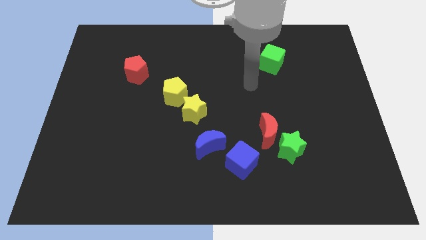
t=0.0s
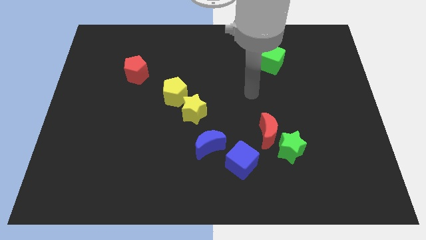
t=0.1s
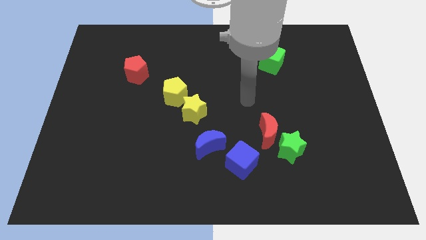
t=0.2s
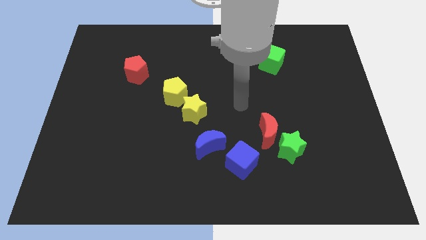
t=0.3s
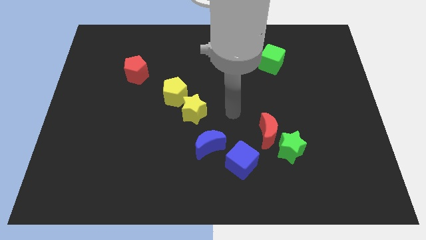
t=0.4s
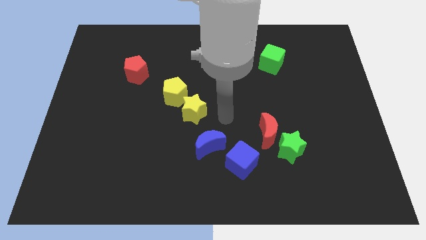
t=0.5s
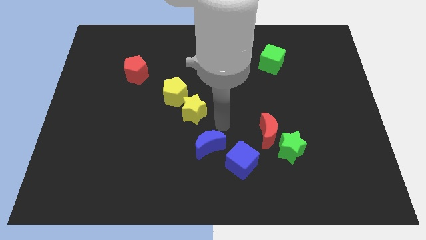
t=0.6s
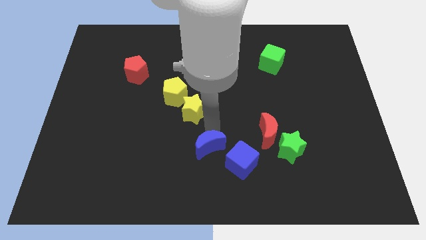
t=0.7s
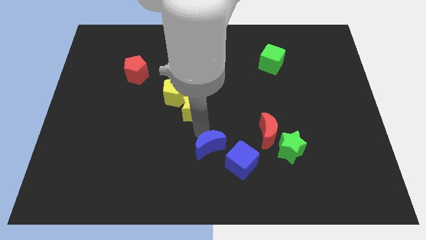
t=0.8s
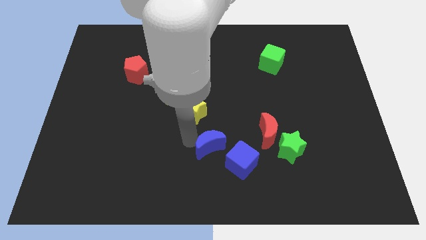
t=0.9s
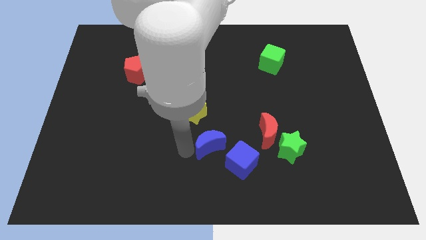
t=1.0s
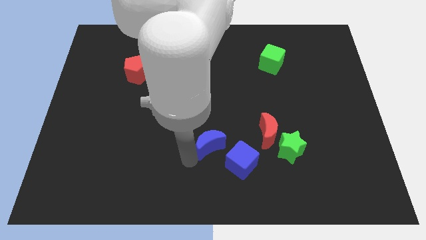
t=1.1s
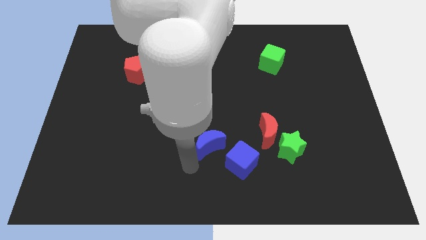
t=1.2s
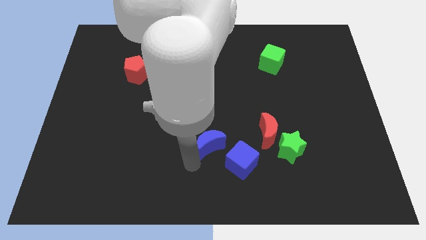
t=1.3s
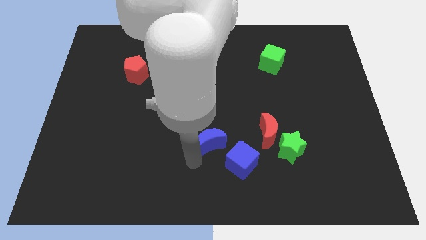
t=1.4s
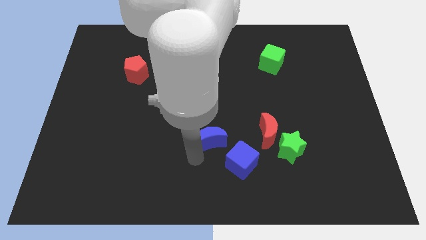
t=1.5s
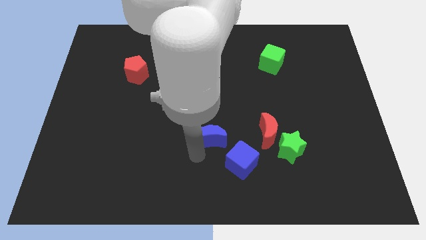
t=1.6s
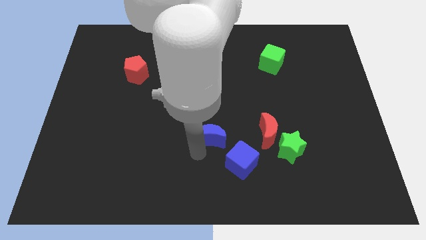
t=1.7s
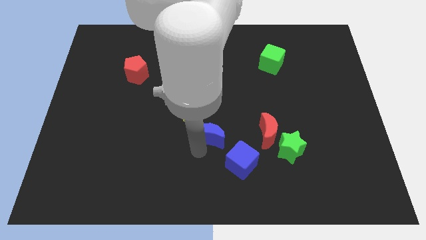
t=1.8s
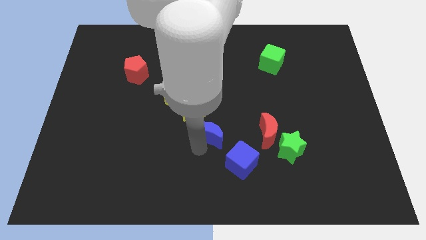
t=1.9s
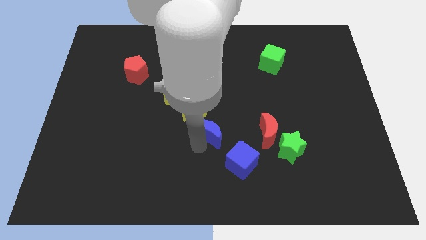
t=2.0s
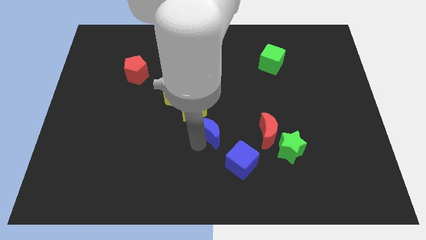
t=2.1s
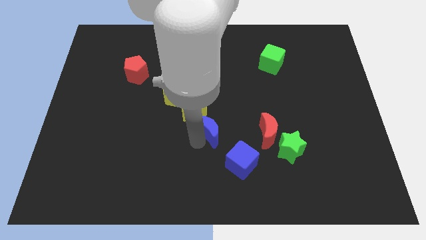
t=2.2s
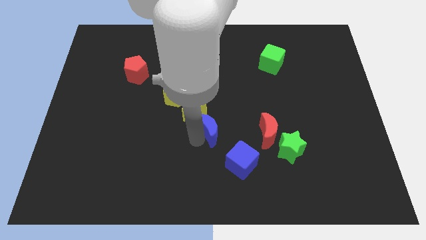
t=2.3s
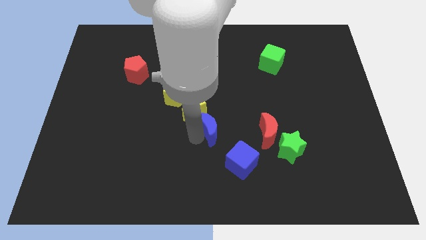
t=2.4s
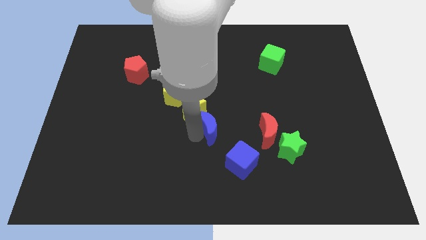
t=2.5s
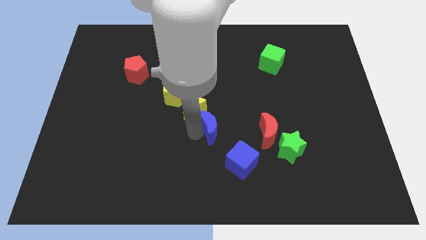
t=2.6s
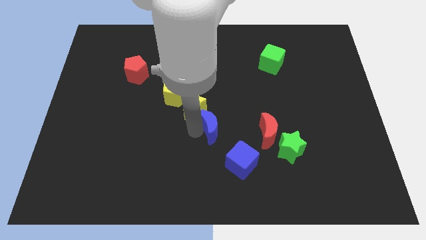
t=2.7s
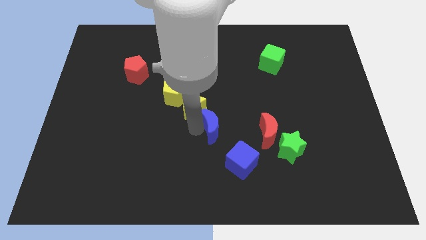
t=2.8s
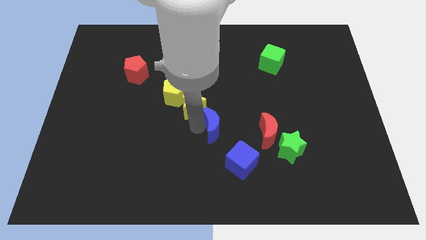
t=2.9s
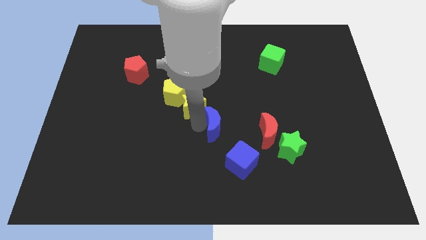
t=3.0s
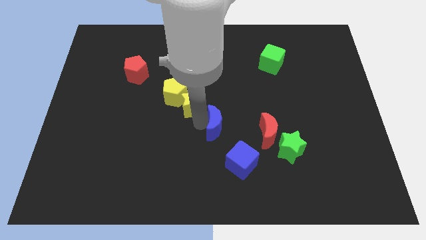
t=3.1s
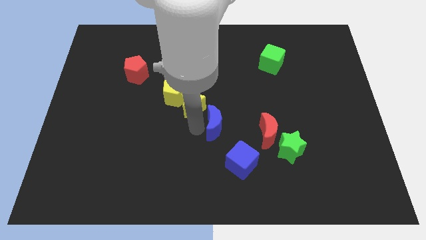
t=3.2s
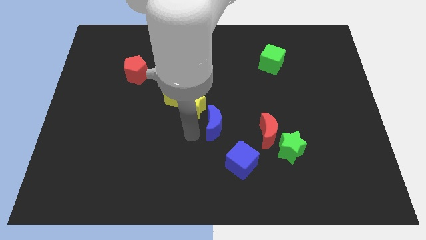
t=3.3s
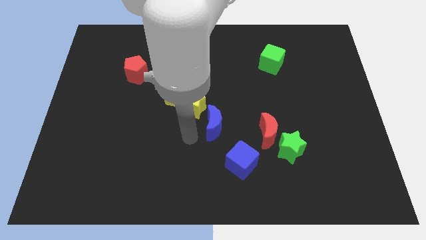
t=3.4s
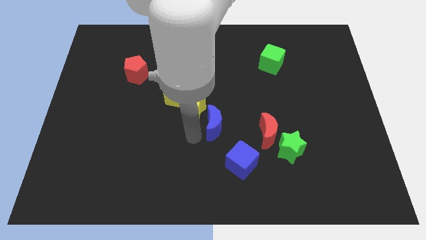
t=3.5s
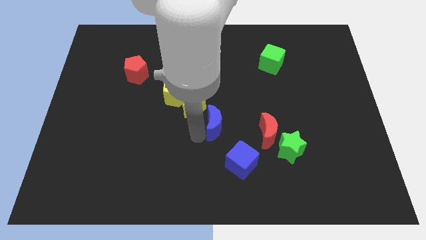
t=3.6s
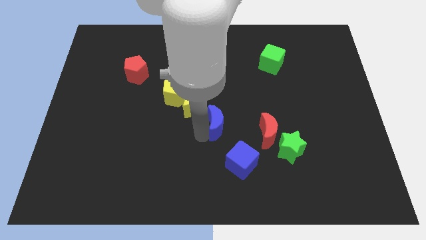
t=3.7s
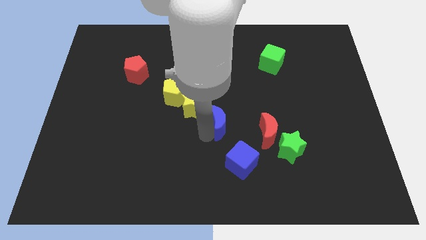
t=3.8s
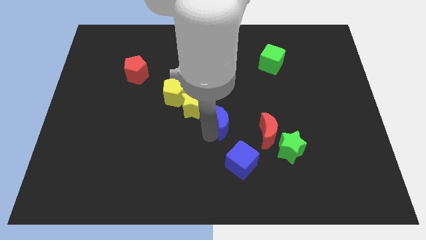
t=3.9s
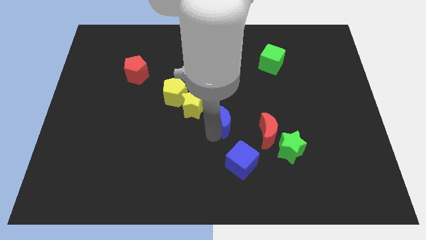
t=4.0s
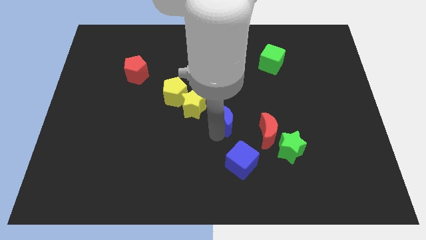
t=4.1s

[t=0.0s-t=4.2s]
slightly push the blue moon up and to the right diagonally

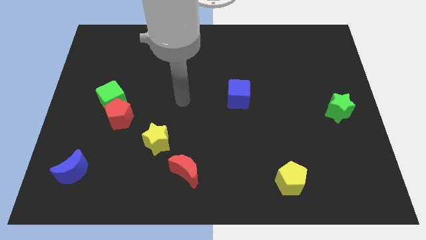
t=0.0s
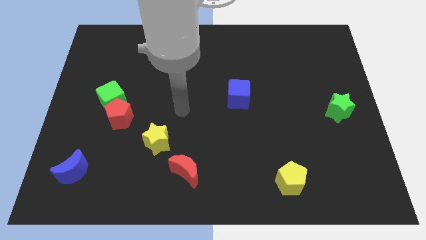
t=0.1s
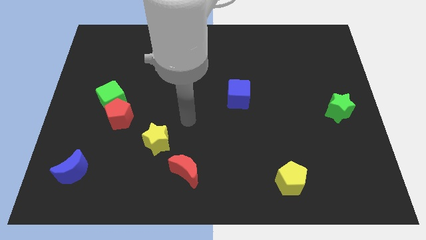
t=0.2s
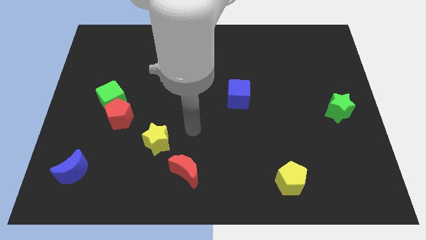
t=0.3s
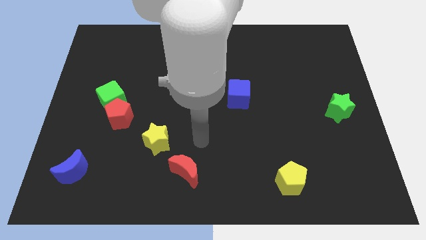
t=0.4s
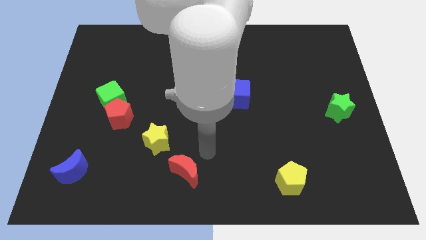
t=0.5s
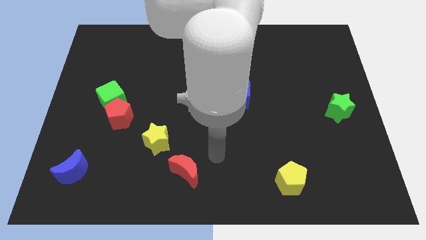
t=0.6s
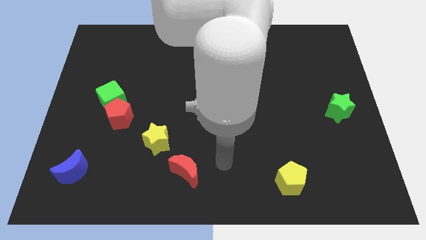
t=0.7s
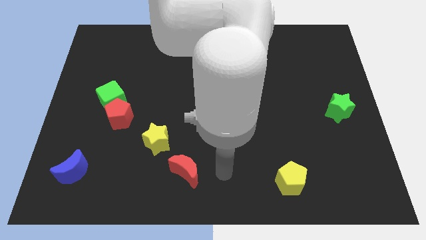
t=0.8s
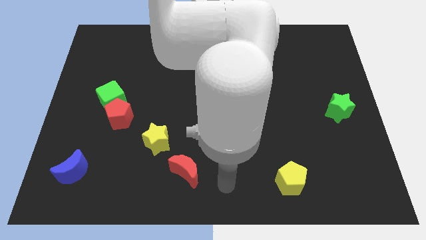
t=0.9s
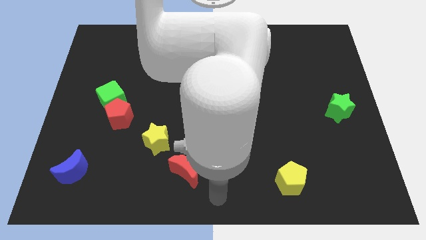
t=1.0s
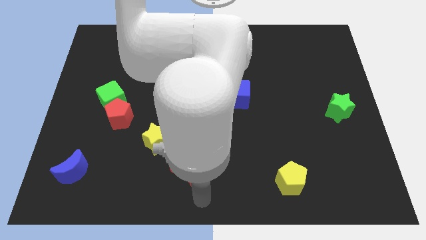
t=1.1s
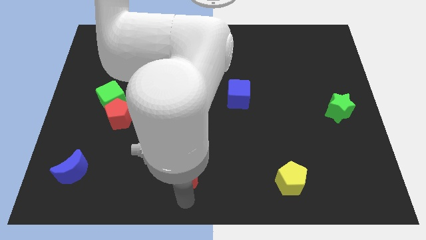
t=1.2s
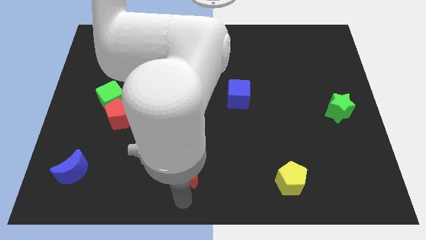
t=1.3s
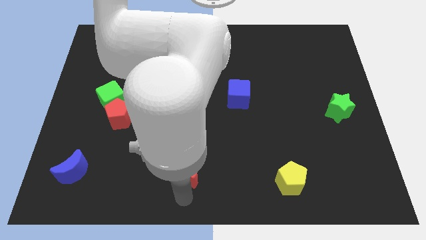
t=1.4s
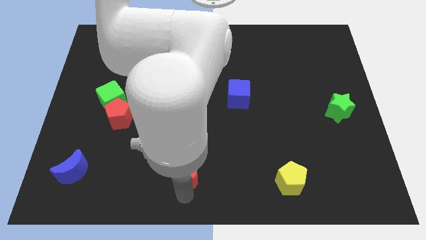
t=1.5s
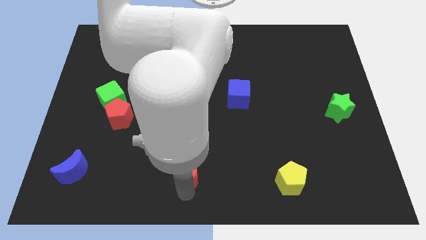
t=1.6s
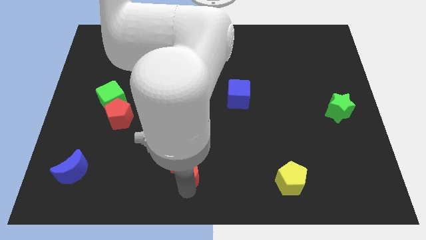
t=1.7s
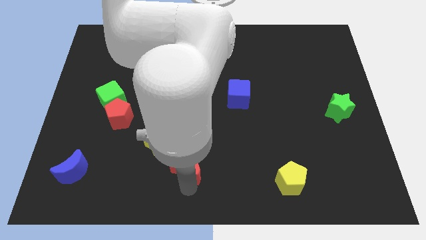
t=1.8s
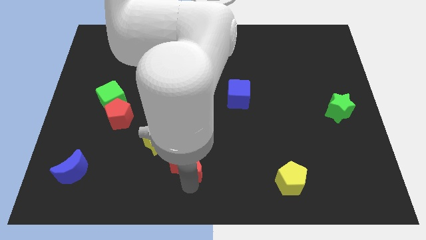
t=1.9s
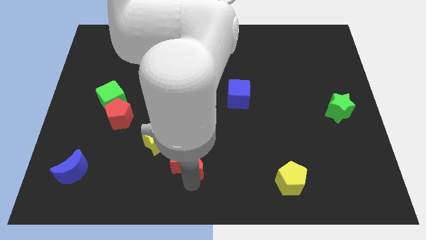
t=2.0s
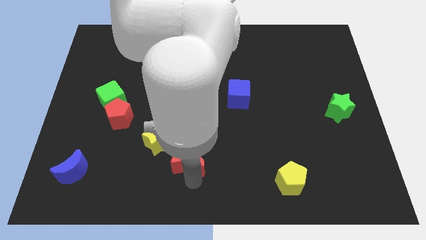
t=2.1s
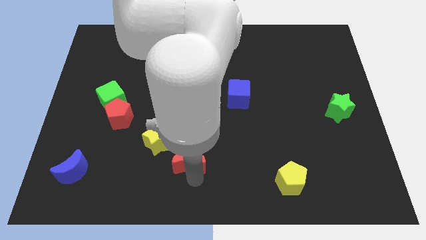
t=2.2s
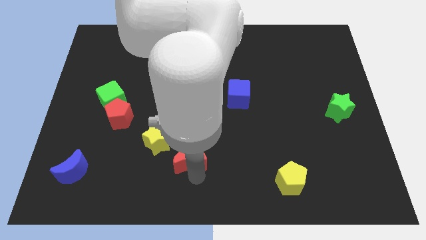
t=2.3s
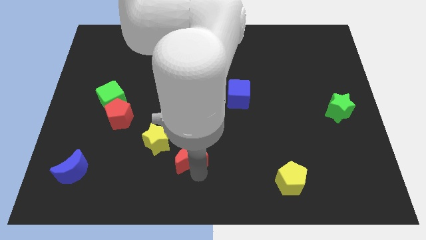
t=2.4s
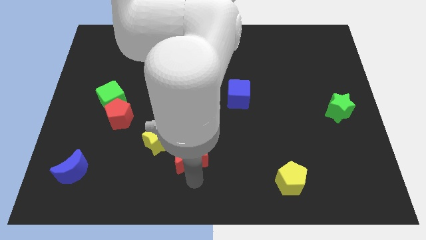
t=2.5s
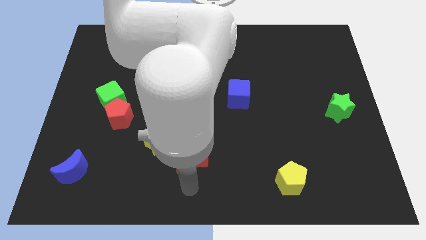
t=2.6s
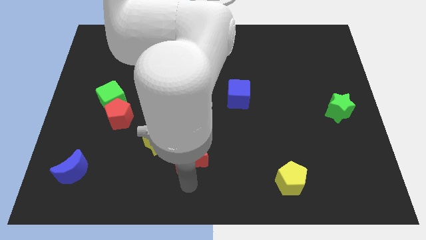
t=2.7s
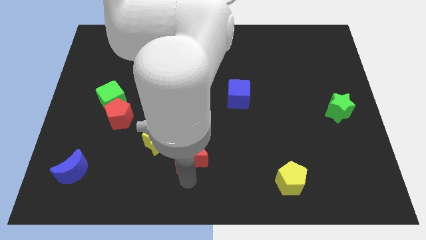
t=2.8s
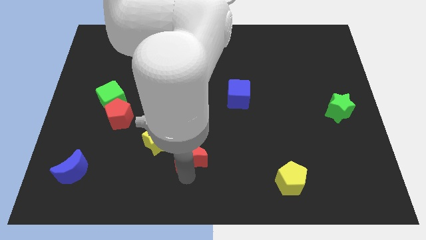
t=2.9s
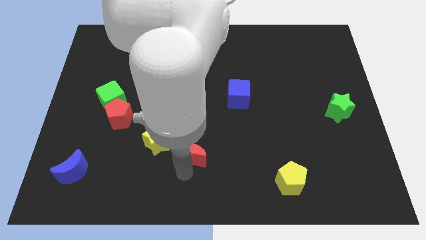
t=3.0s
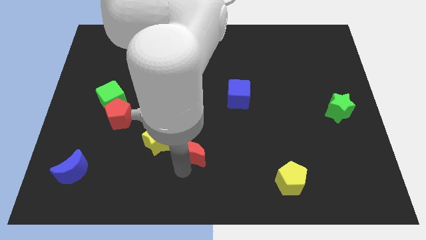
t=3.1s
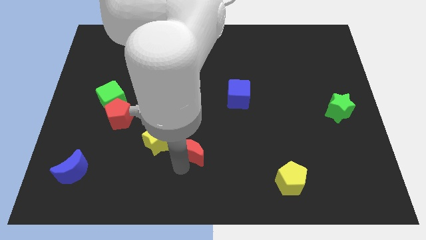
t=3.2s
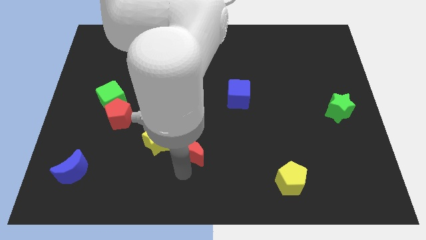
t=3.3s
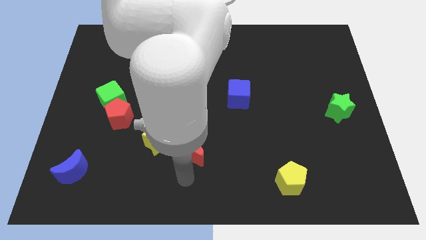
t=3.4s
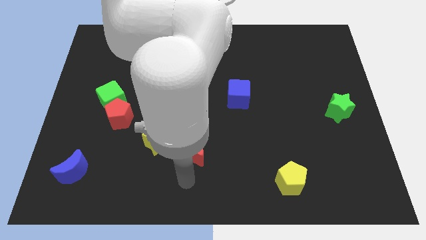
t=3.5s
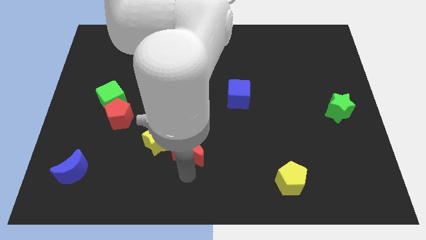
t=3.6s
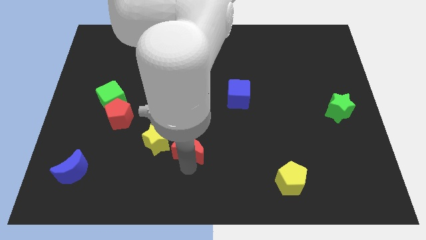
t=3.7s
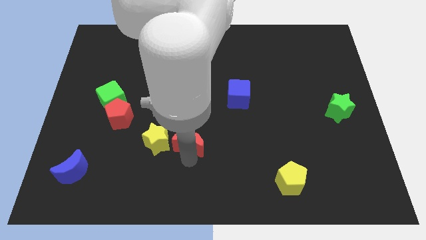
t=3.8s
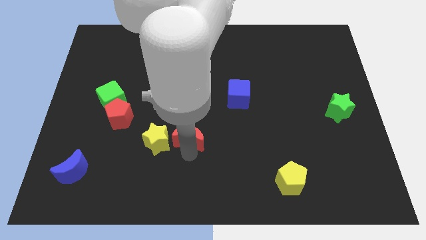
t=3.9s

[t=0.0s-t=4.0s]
slide the red moon upwards somewhat

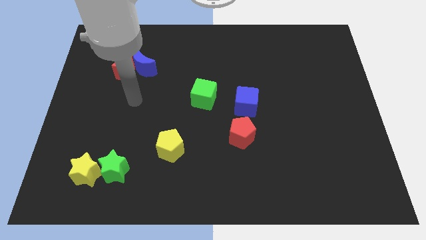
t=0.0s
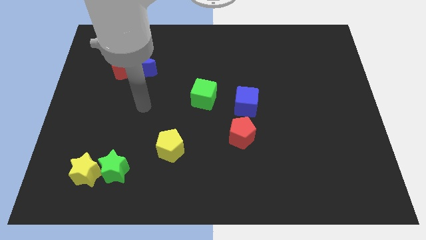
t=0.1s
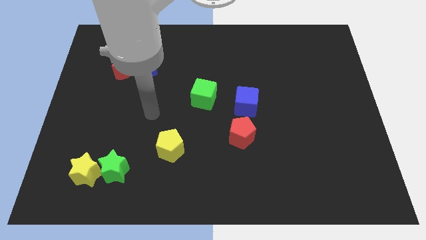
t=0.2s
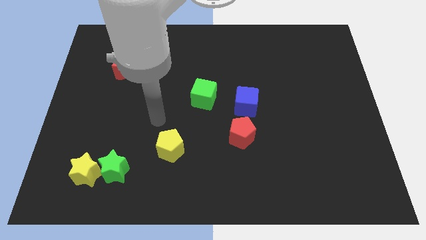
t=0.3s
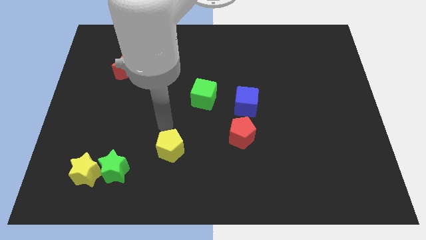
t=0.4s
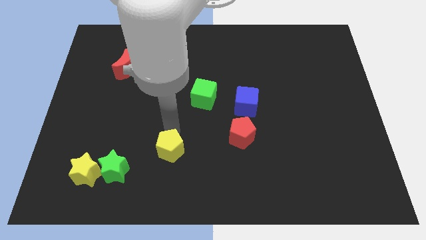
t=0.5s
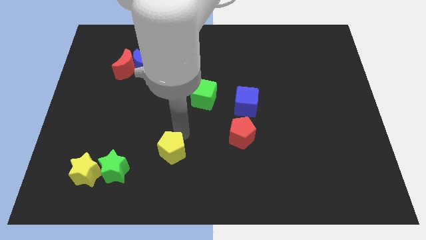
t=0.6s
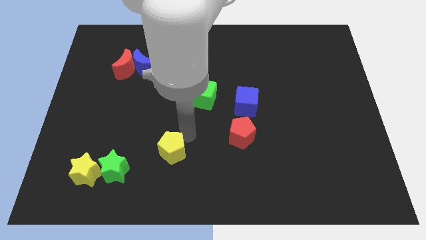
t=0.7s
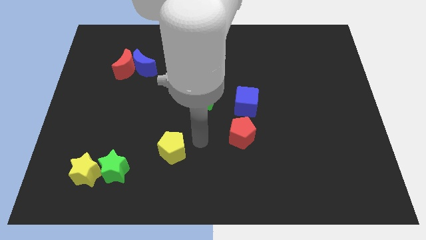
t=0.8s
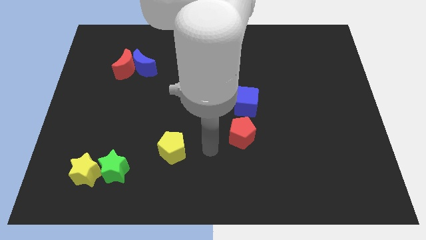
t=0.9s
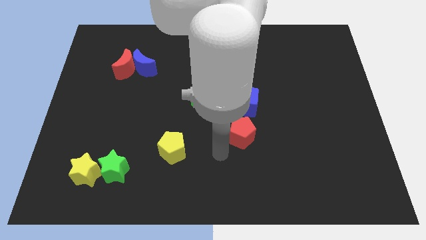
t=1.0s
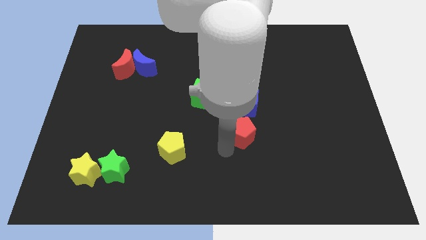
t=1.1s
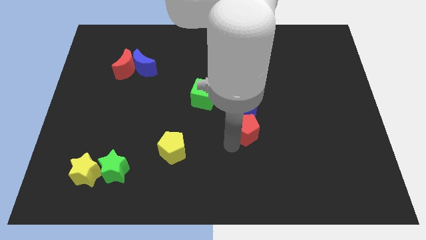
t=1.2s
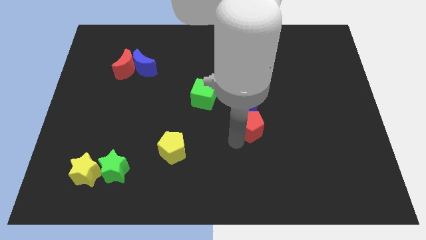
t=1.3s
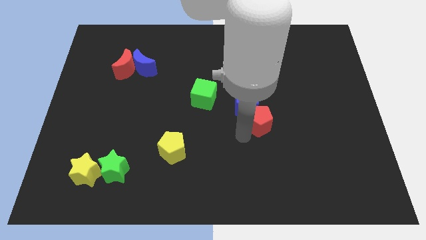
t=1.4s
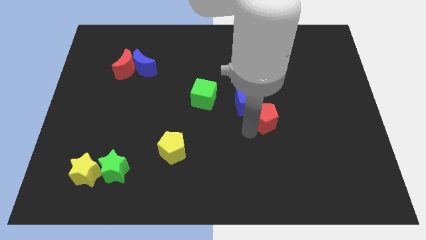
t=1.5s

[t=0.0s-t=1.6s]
slide the red pentagon somewhat up and to the right
